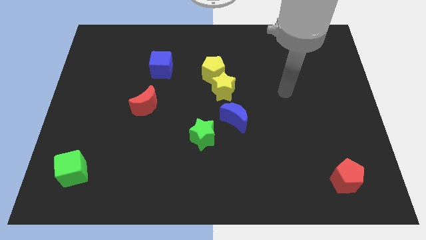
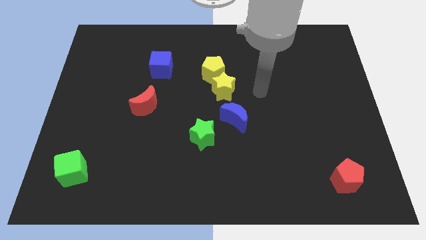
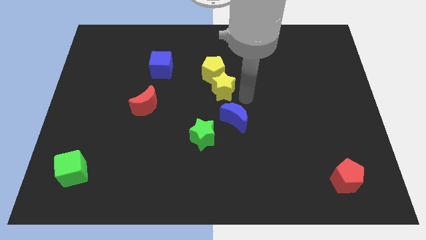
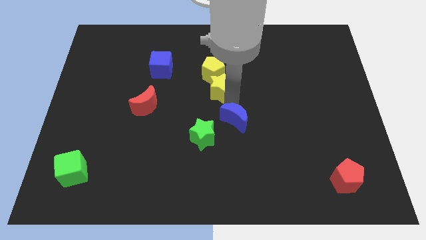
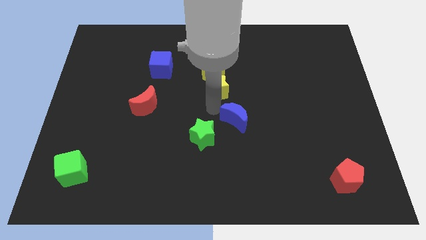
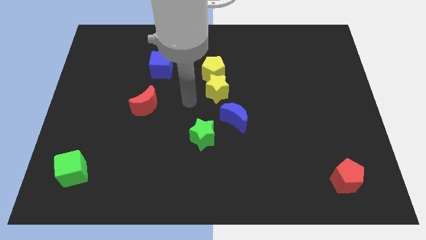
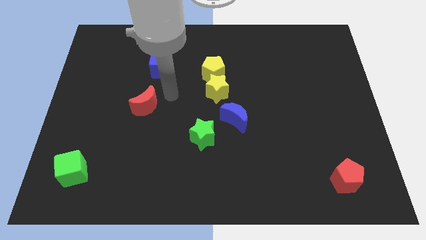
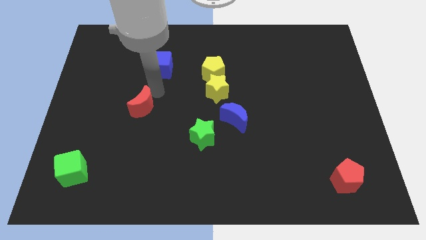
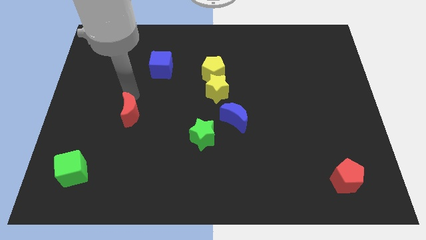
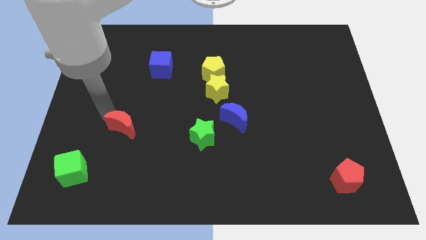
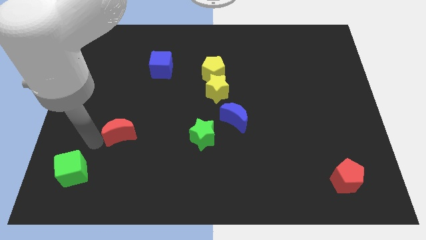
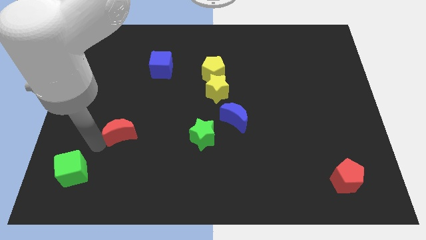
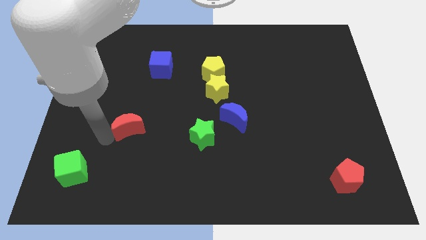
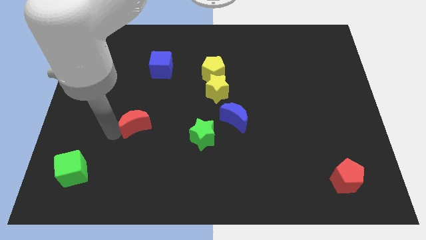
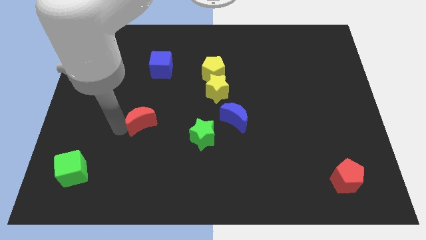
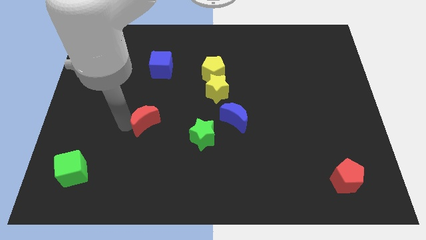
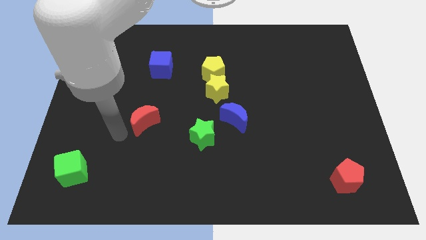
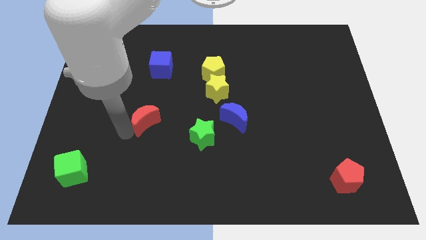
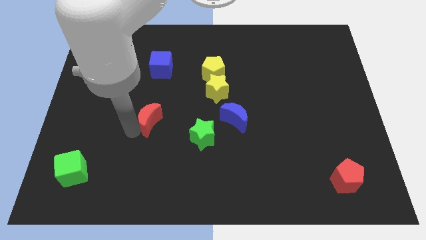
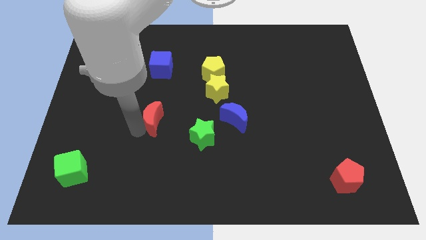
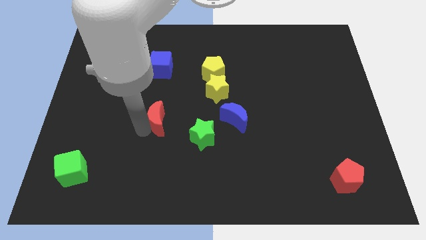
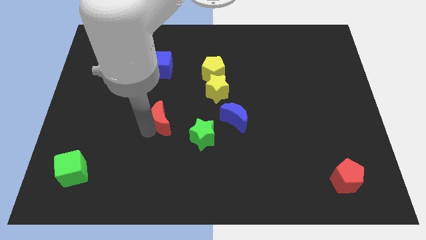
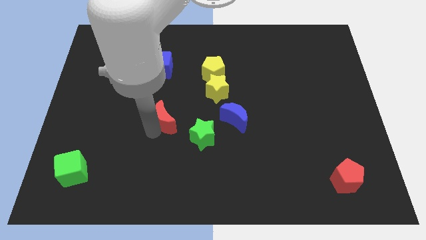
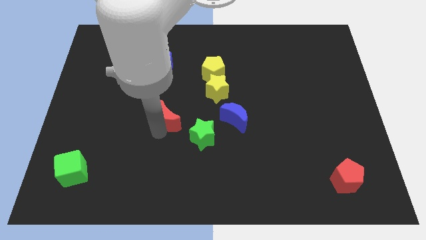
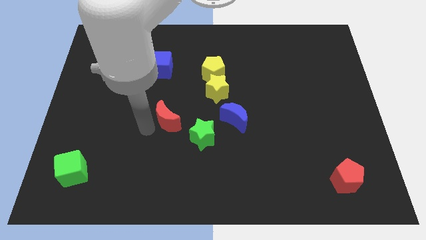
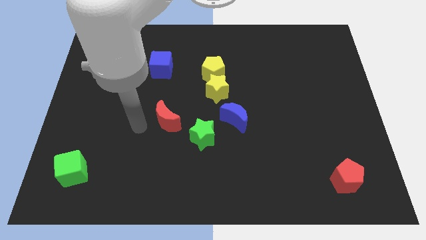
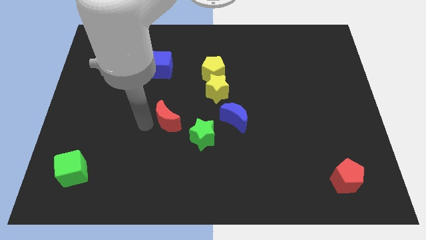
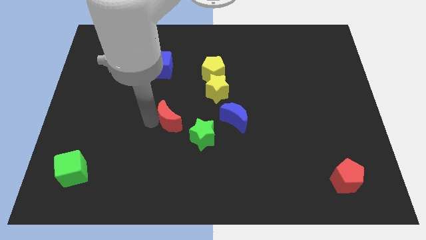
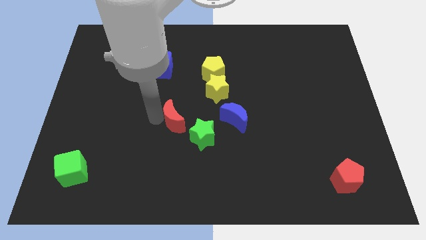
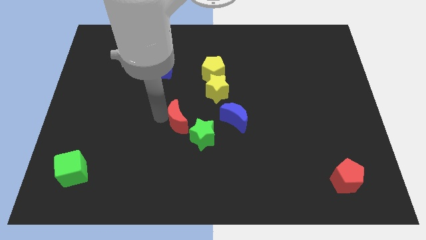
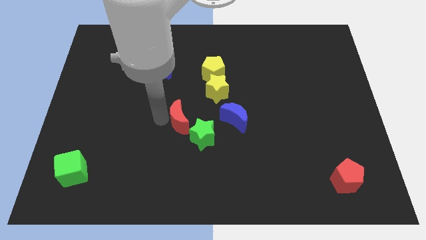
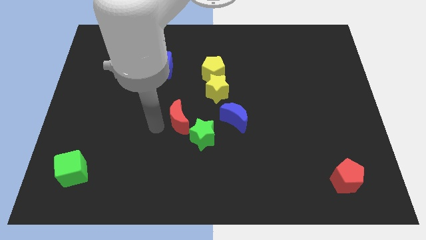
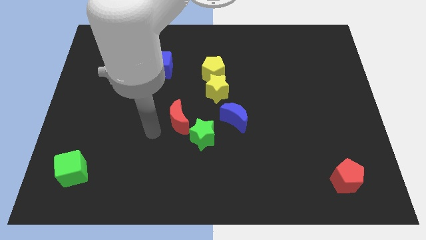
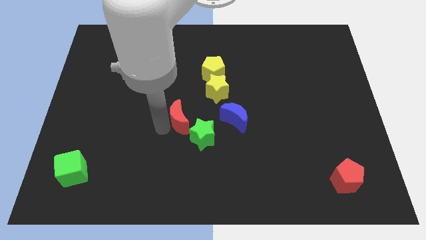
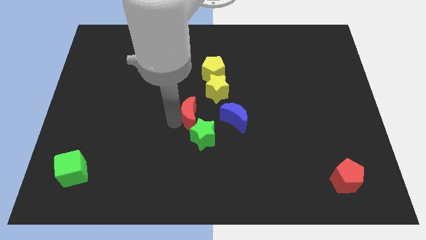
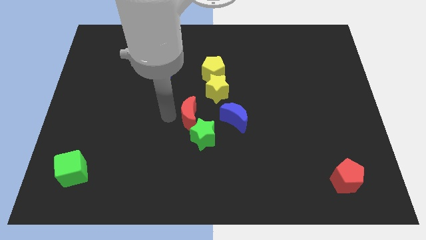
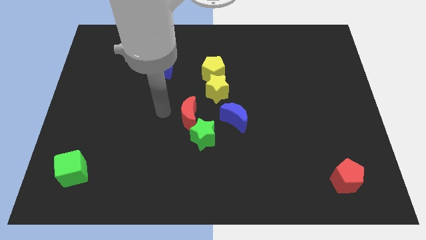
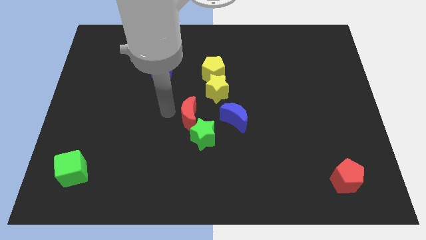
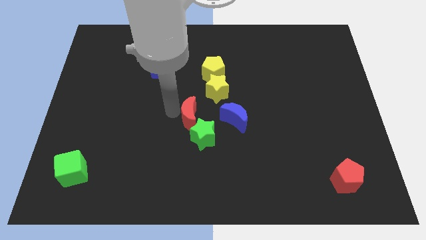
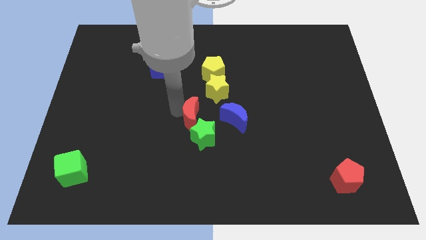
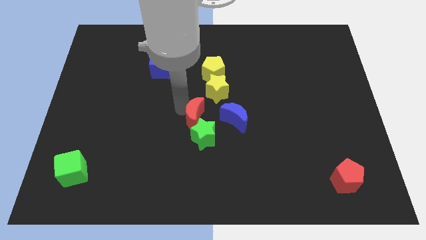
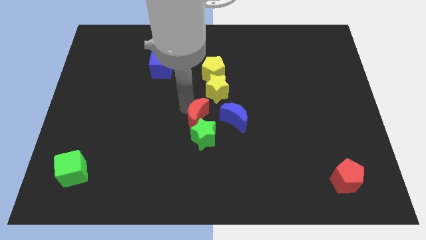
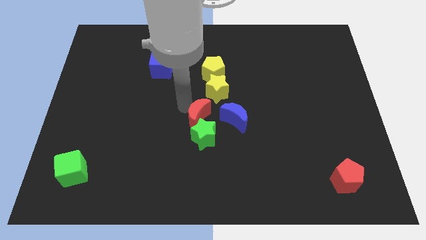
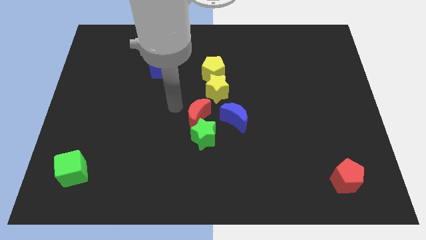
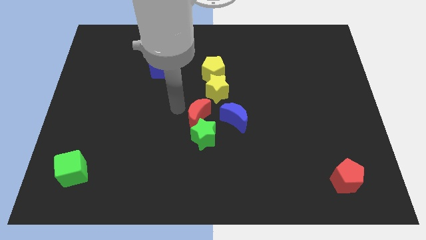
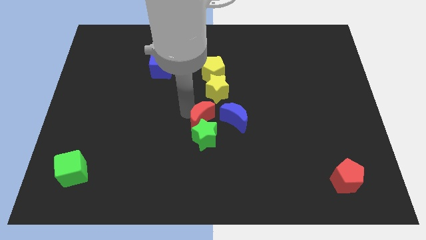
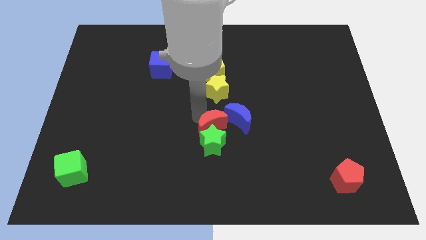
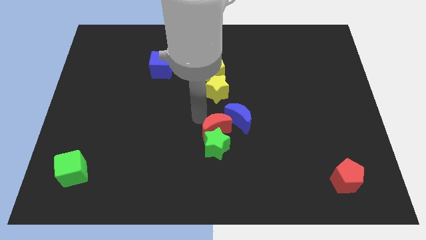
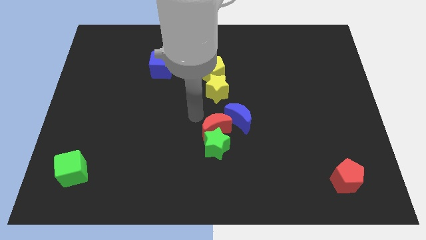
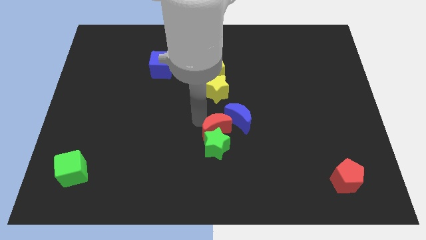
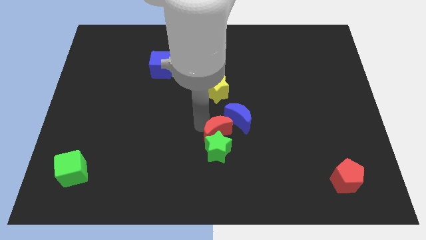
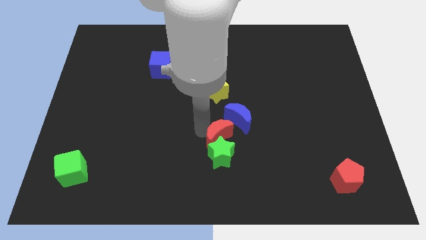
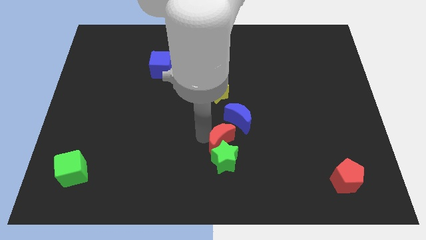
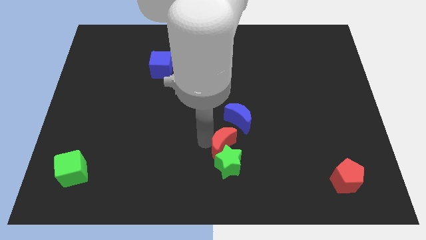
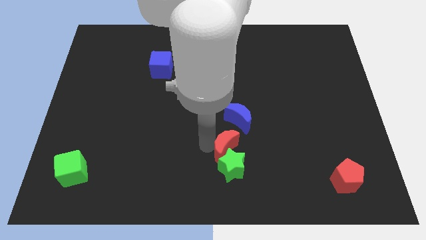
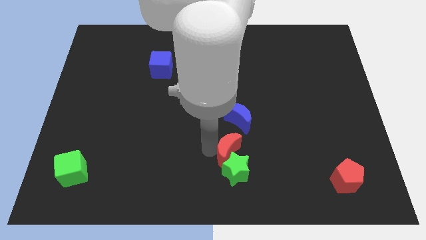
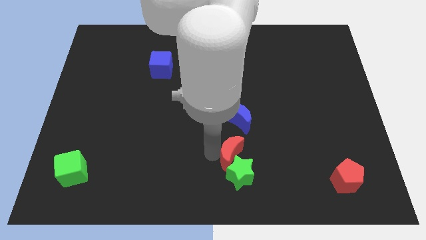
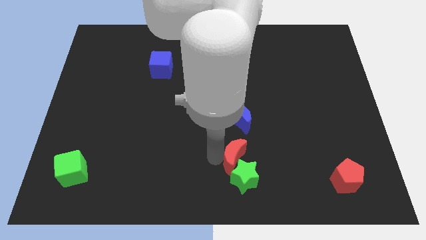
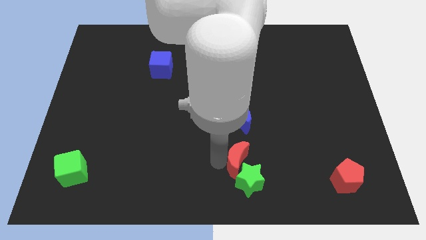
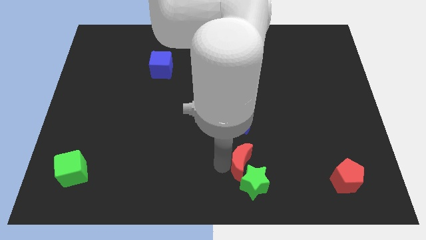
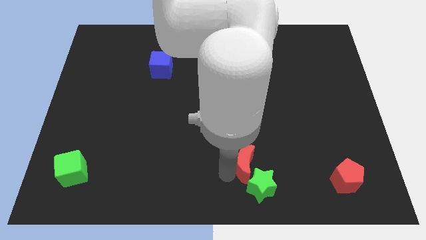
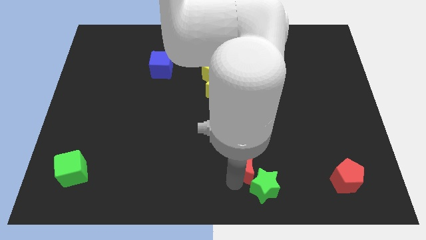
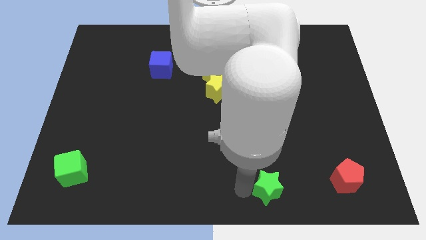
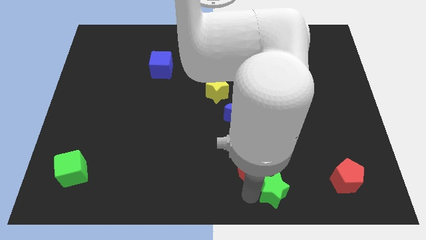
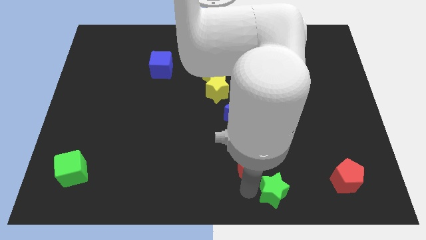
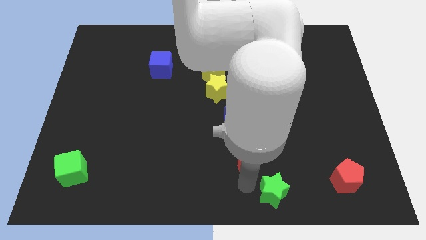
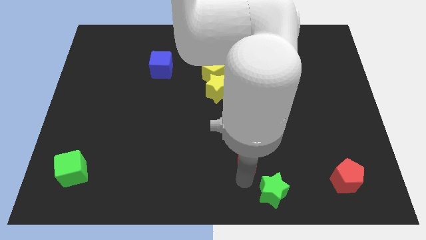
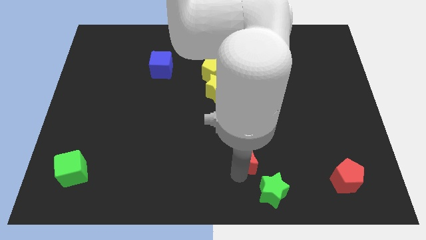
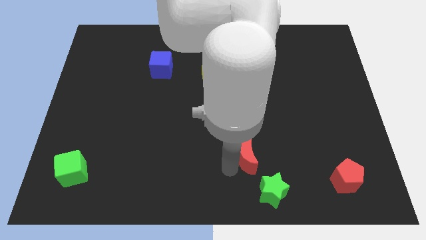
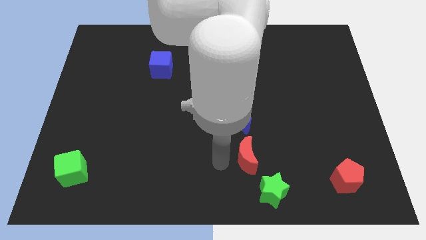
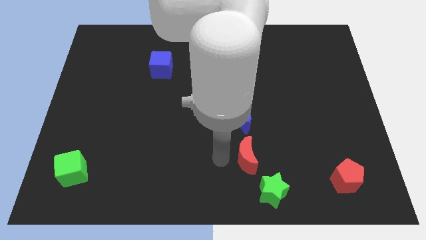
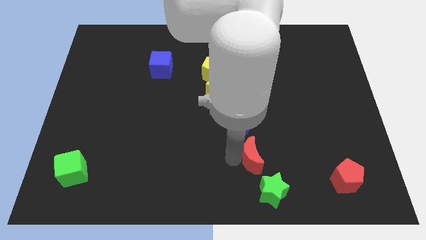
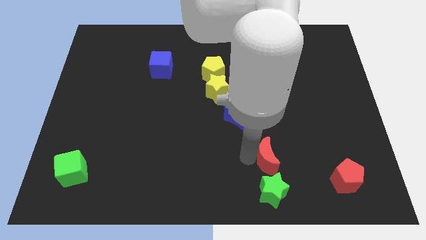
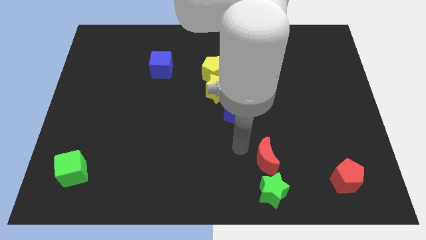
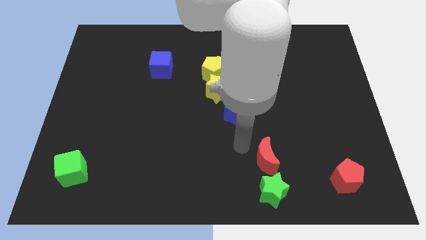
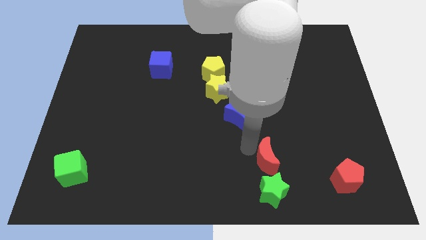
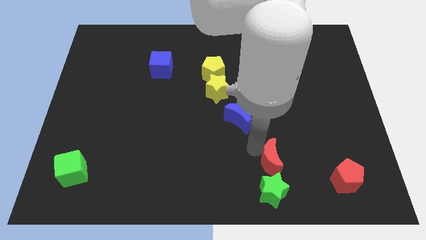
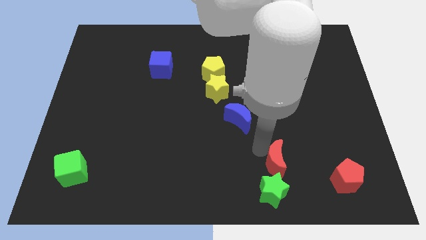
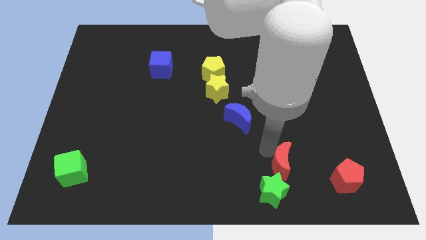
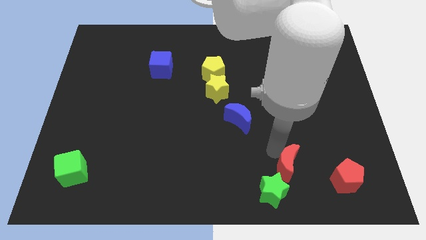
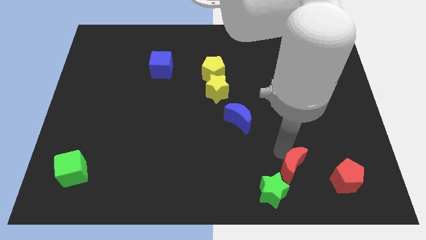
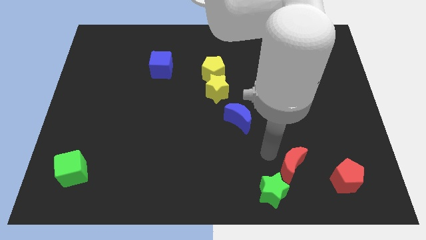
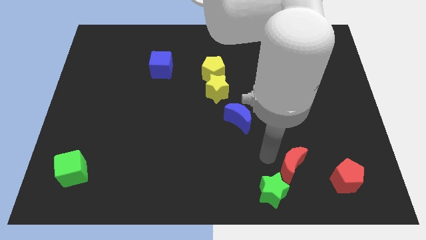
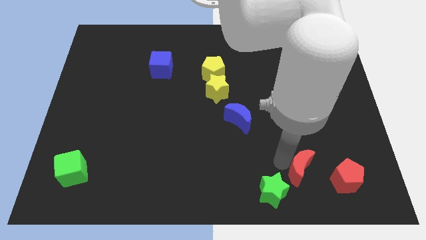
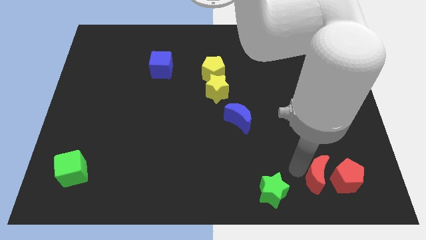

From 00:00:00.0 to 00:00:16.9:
slide the red moon towards the red pentagon

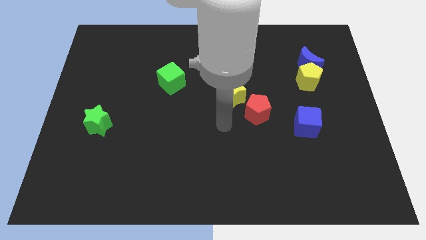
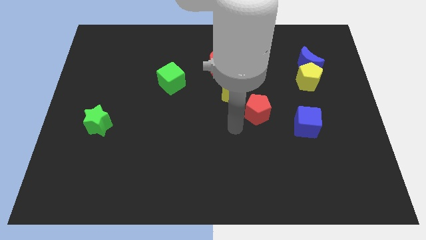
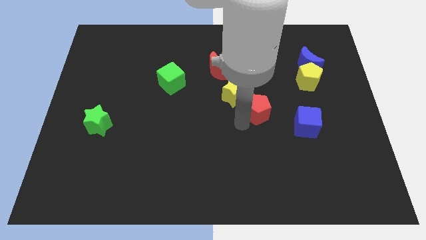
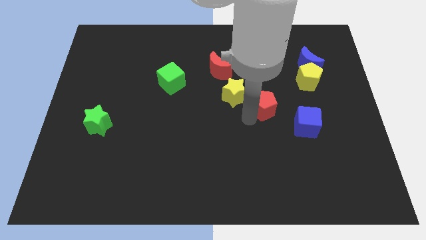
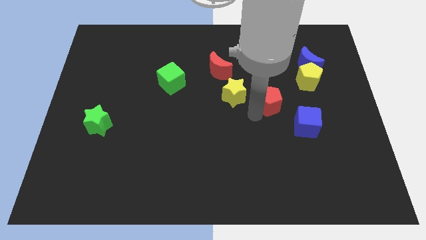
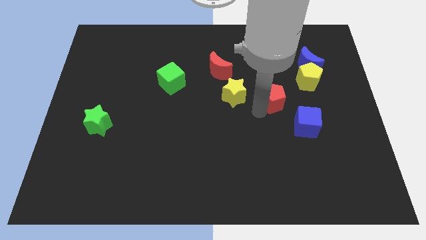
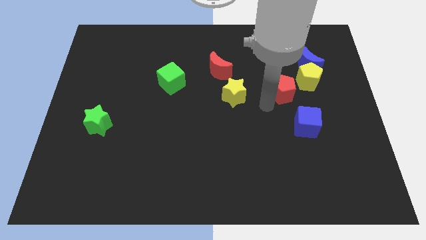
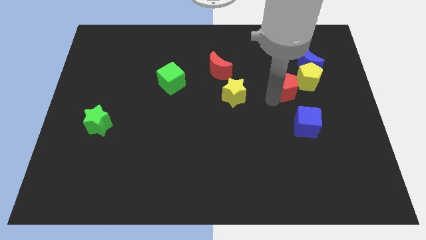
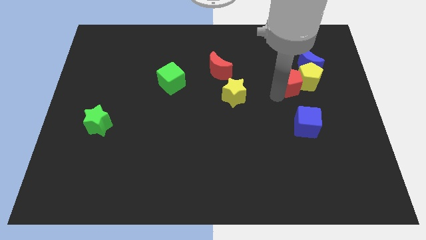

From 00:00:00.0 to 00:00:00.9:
push the red pentagon next to the yellow pentagon
